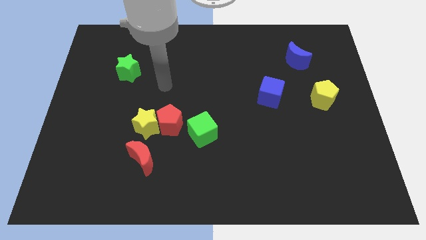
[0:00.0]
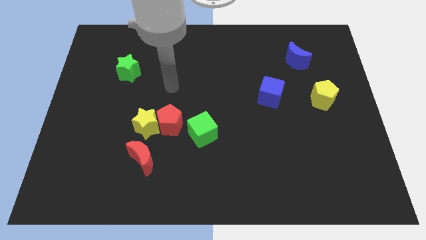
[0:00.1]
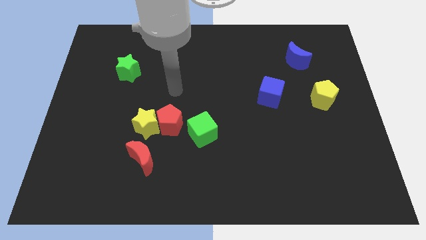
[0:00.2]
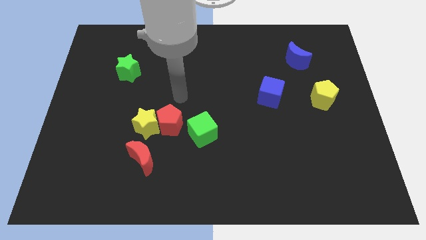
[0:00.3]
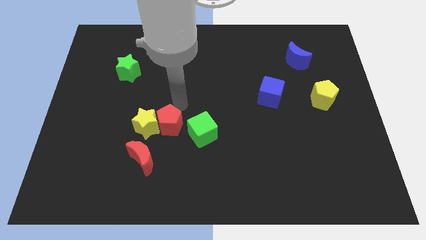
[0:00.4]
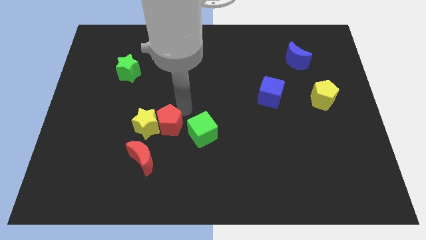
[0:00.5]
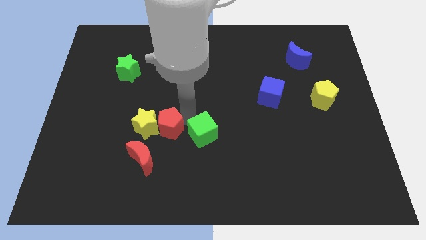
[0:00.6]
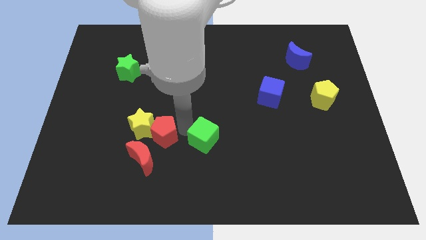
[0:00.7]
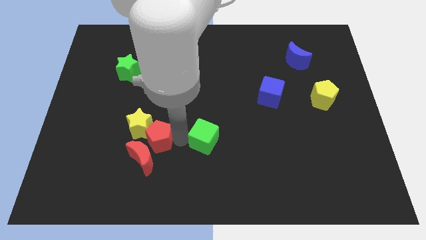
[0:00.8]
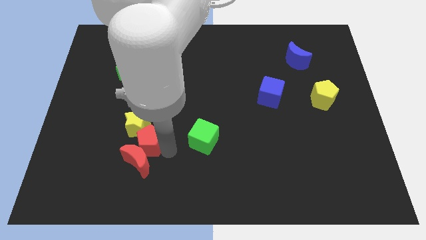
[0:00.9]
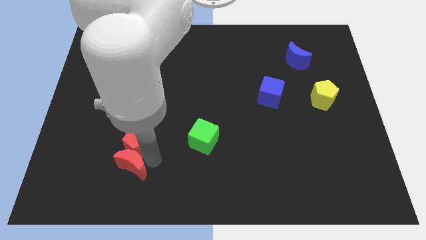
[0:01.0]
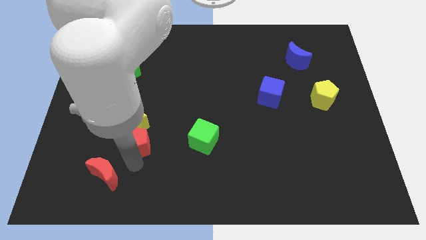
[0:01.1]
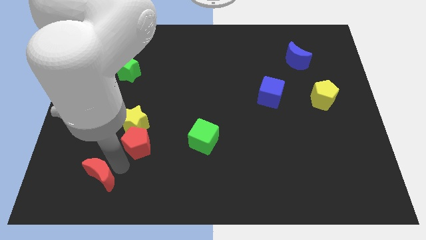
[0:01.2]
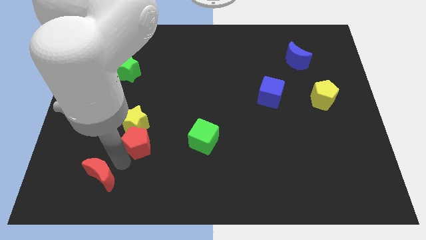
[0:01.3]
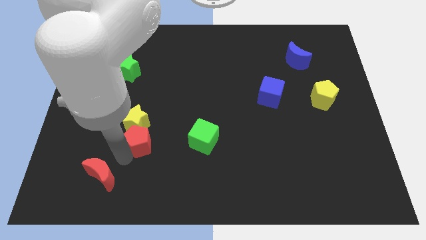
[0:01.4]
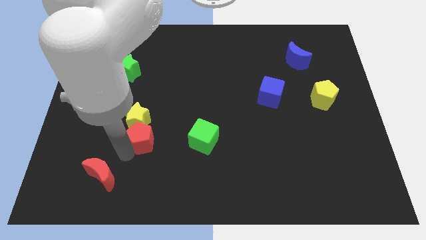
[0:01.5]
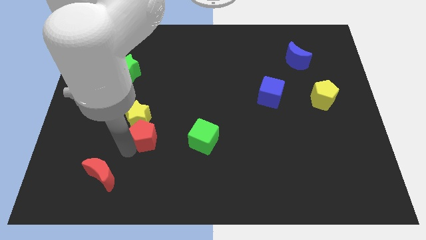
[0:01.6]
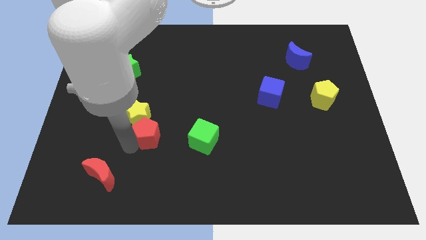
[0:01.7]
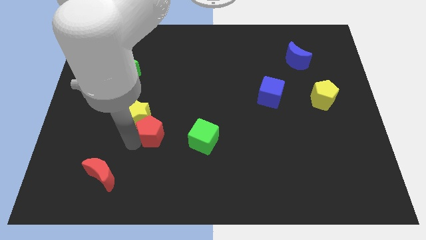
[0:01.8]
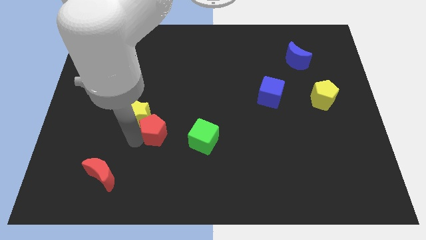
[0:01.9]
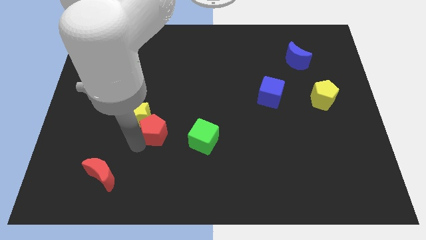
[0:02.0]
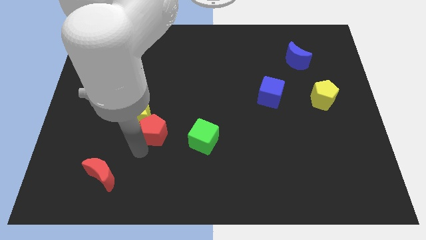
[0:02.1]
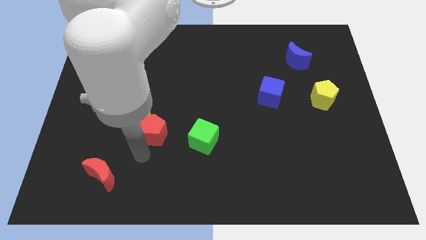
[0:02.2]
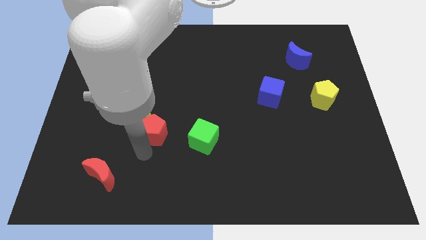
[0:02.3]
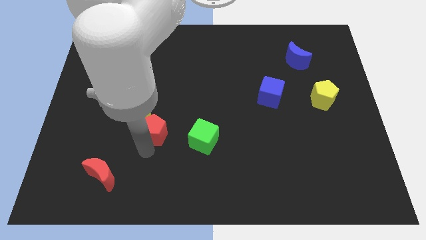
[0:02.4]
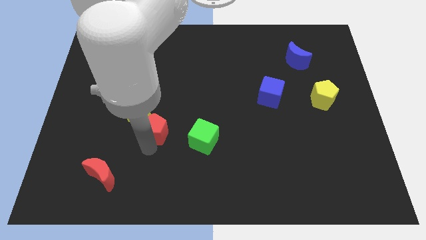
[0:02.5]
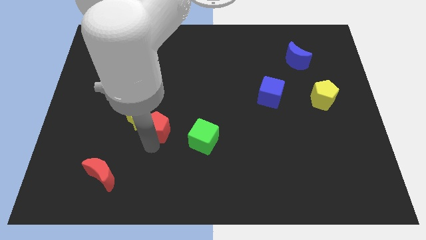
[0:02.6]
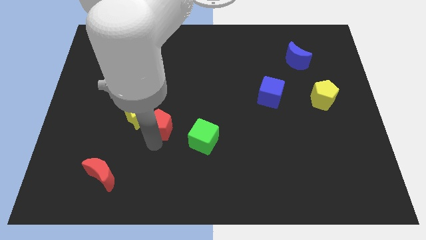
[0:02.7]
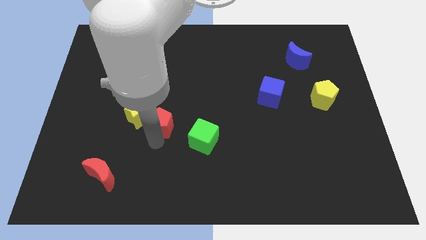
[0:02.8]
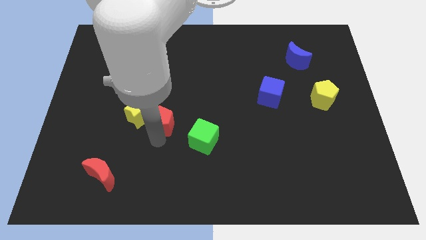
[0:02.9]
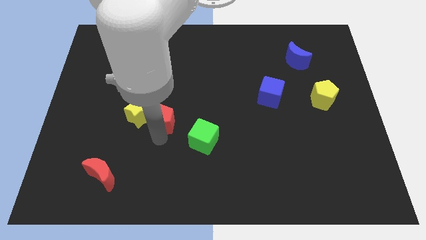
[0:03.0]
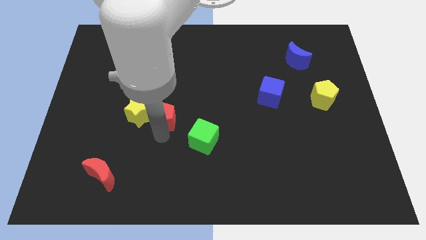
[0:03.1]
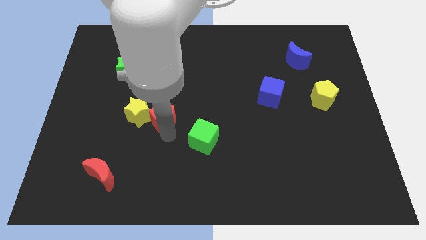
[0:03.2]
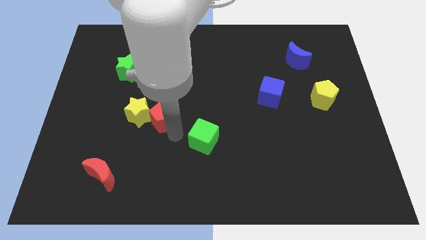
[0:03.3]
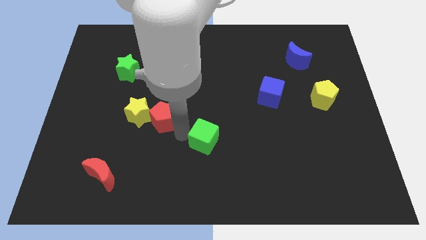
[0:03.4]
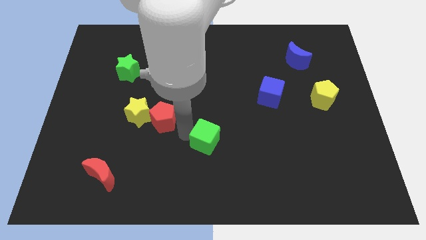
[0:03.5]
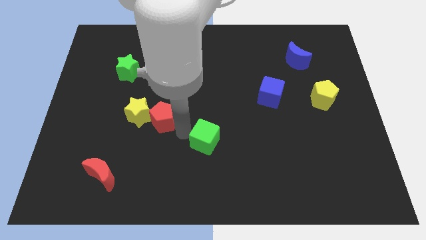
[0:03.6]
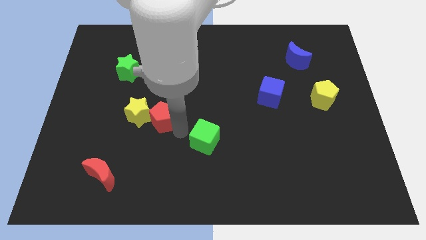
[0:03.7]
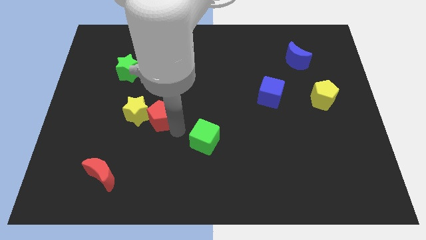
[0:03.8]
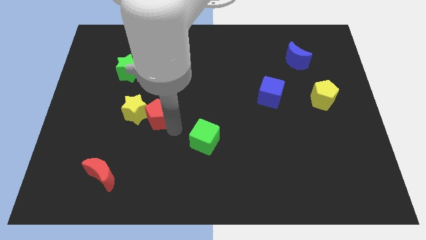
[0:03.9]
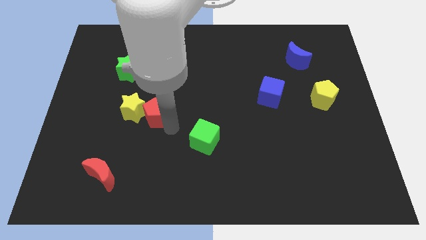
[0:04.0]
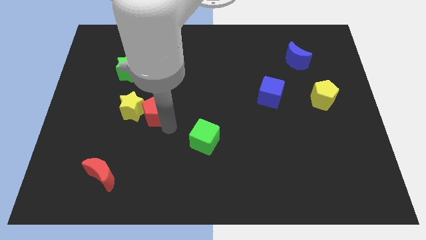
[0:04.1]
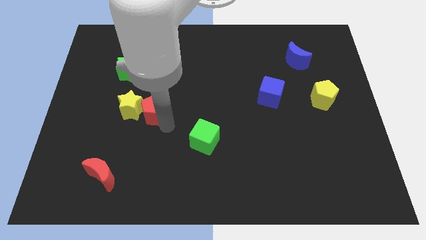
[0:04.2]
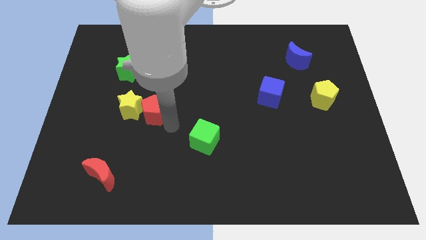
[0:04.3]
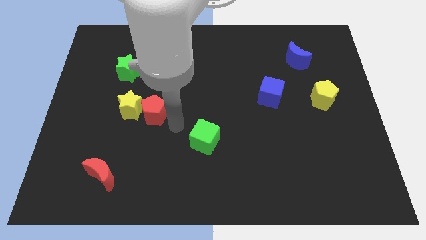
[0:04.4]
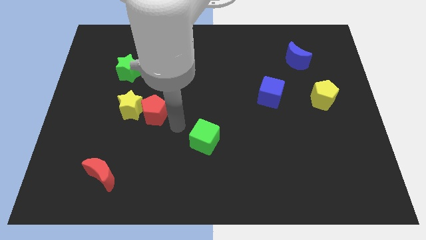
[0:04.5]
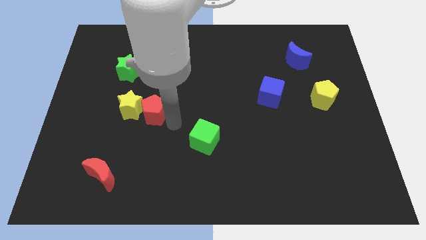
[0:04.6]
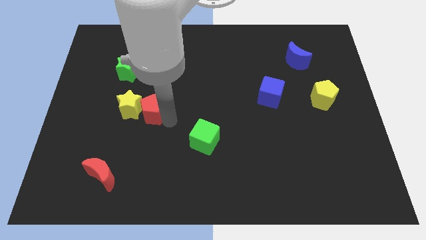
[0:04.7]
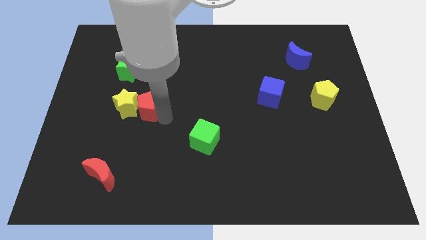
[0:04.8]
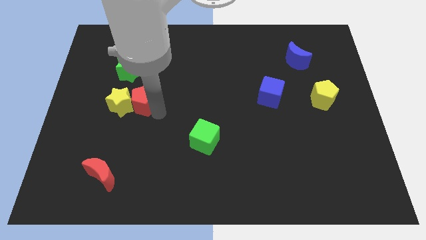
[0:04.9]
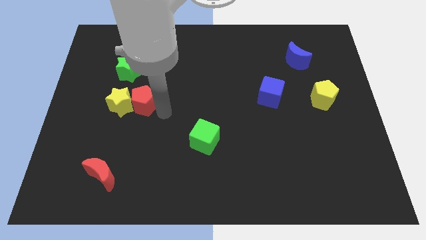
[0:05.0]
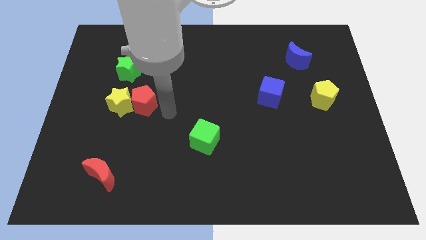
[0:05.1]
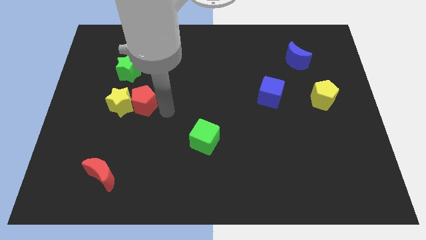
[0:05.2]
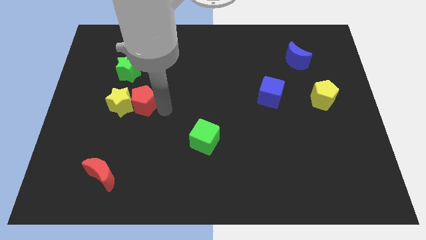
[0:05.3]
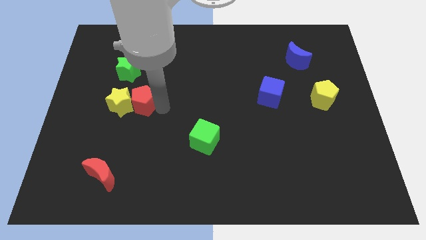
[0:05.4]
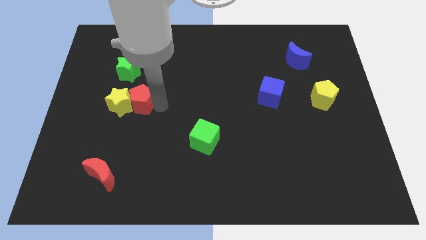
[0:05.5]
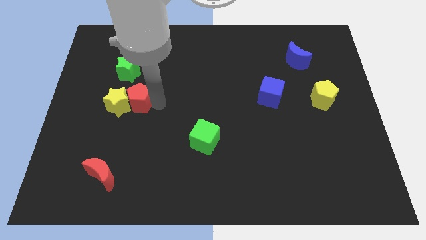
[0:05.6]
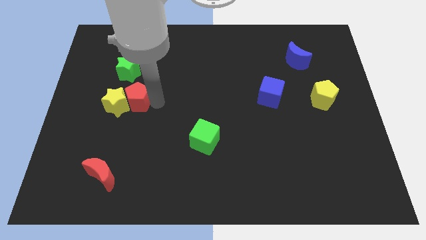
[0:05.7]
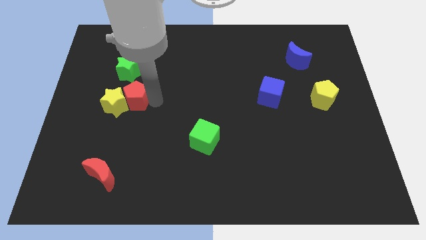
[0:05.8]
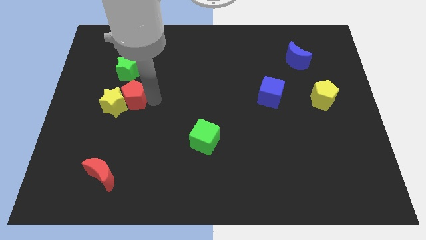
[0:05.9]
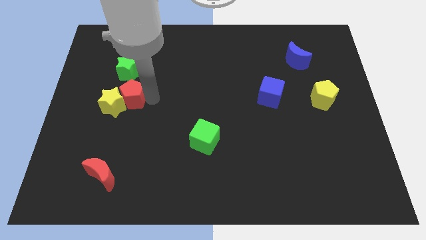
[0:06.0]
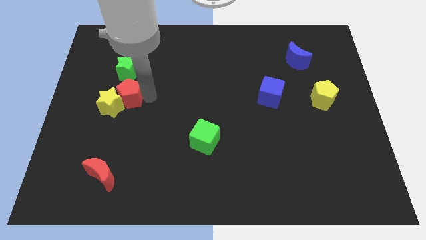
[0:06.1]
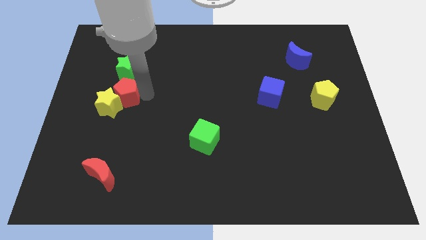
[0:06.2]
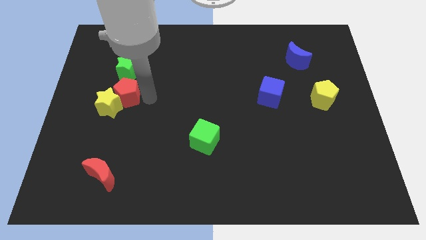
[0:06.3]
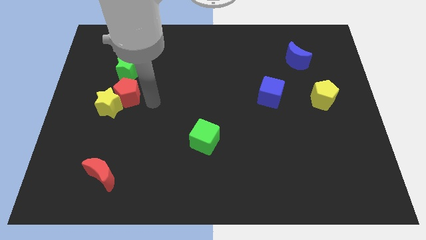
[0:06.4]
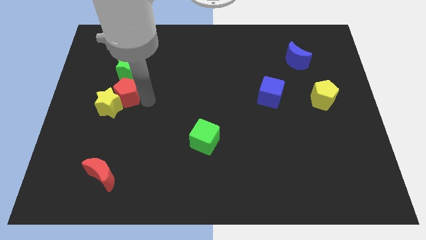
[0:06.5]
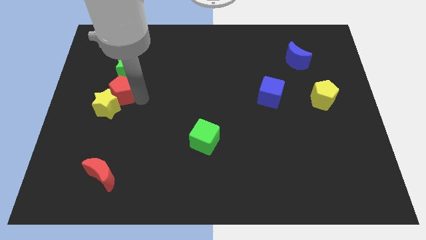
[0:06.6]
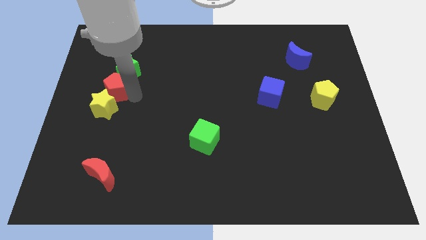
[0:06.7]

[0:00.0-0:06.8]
push the red pentagon diagonally down and to the left of the green star
